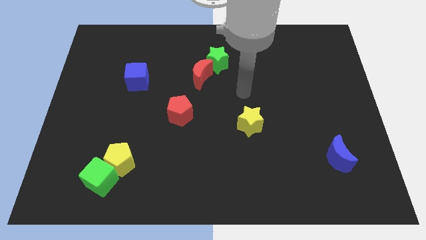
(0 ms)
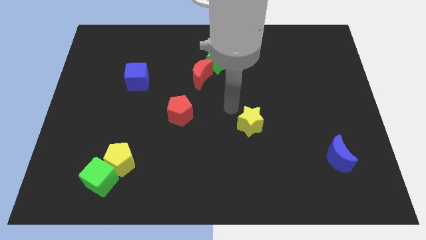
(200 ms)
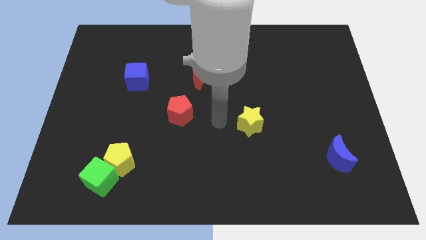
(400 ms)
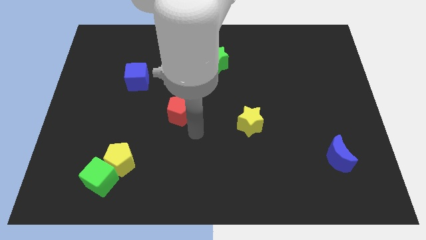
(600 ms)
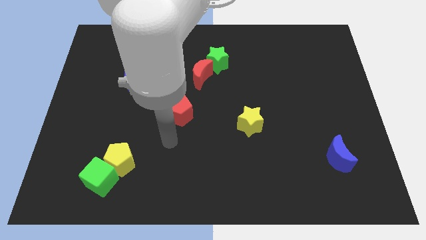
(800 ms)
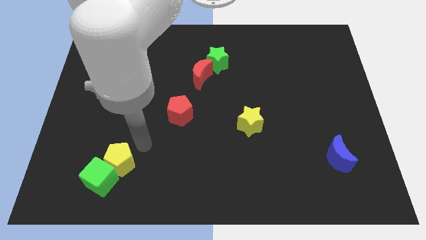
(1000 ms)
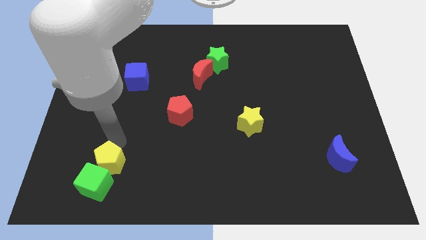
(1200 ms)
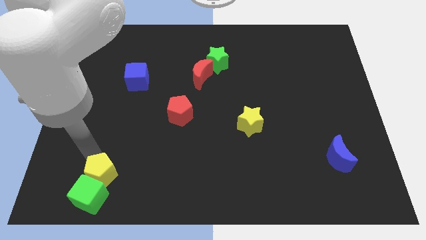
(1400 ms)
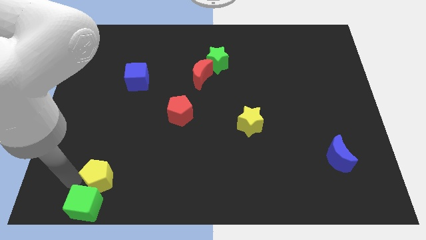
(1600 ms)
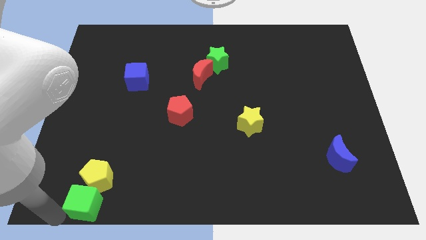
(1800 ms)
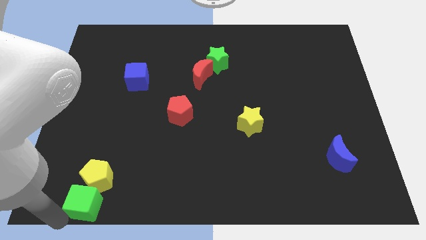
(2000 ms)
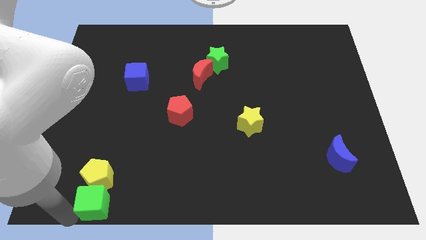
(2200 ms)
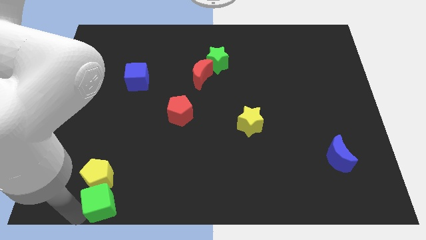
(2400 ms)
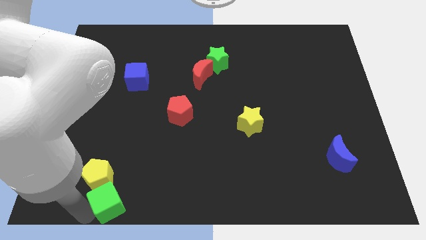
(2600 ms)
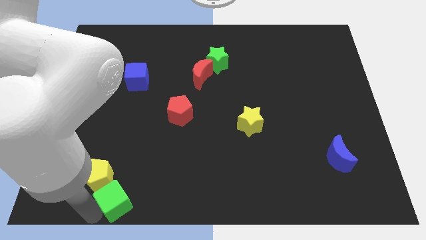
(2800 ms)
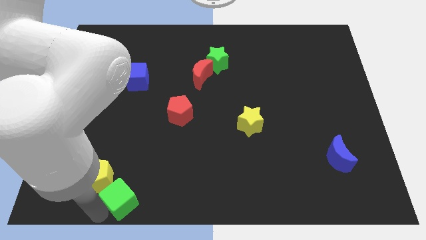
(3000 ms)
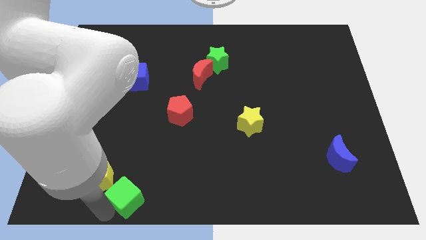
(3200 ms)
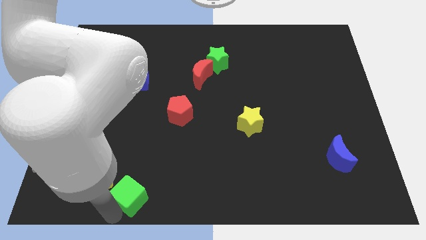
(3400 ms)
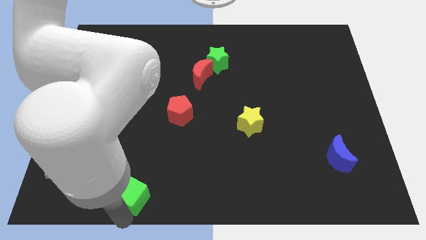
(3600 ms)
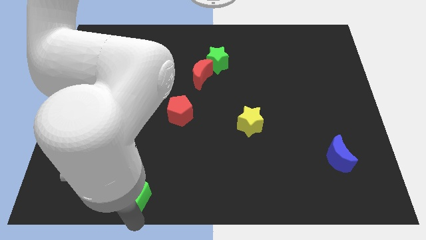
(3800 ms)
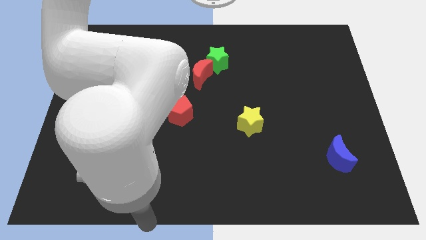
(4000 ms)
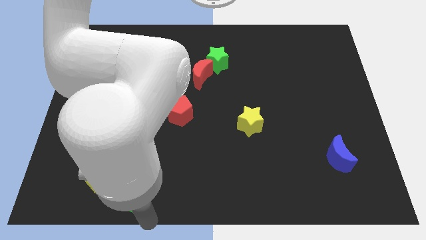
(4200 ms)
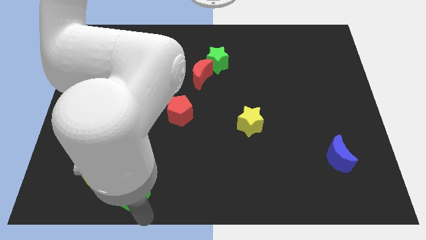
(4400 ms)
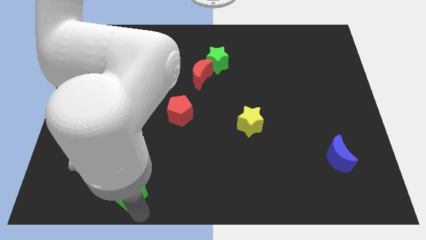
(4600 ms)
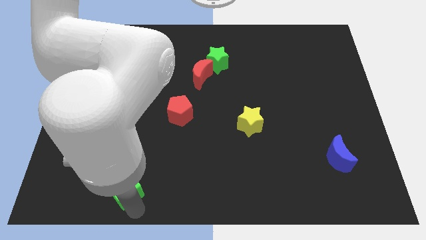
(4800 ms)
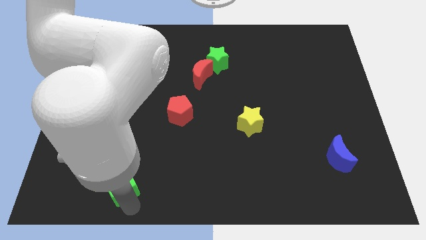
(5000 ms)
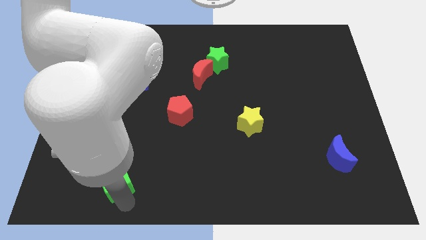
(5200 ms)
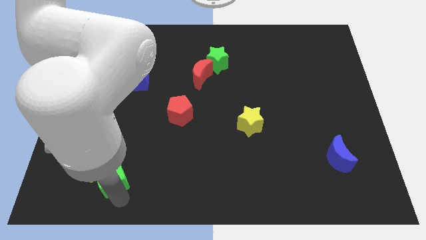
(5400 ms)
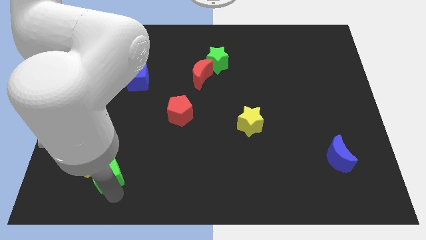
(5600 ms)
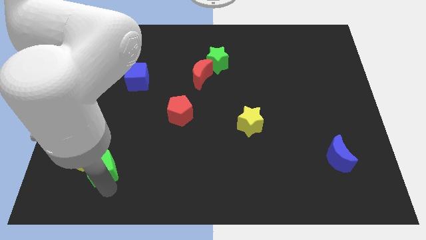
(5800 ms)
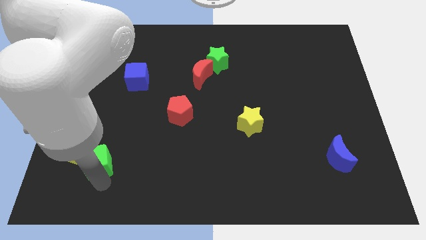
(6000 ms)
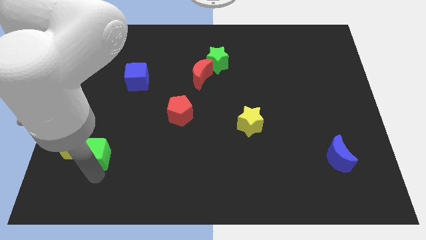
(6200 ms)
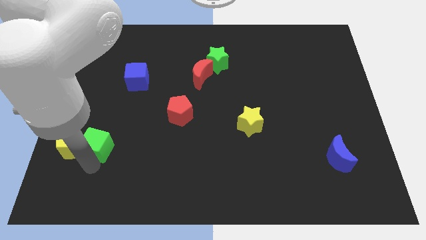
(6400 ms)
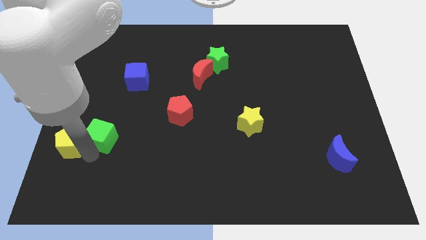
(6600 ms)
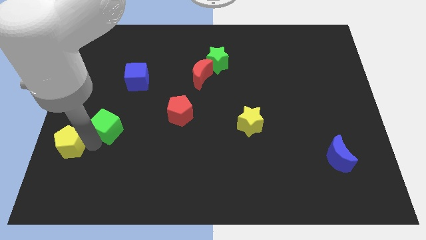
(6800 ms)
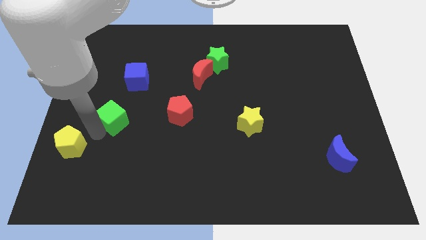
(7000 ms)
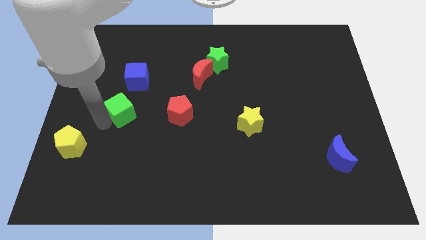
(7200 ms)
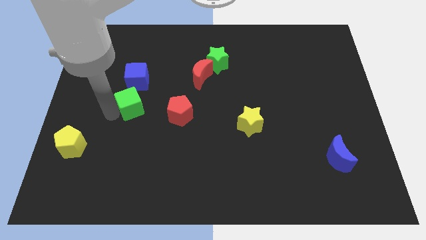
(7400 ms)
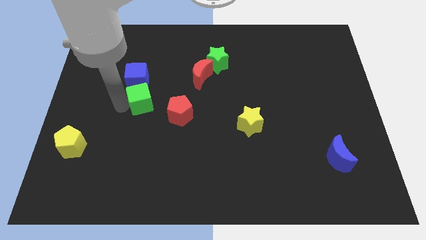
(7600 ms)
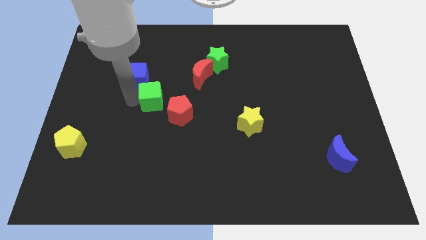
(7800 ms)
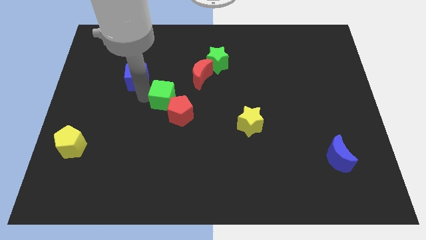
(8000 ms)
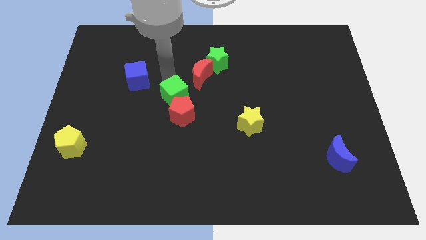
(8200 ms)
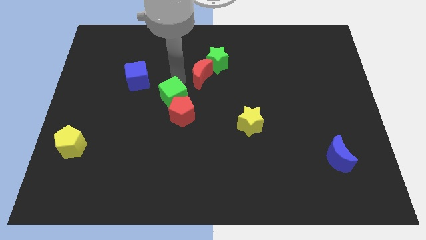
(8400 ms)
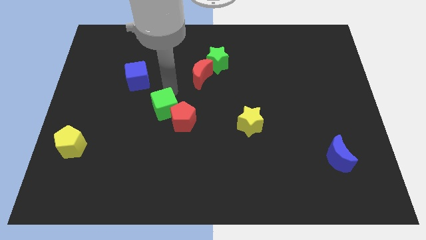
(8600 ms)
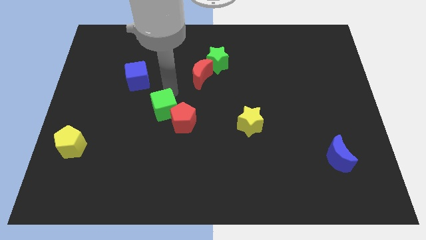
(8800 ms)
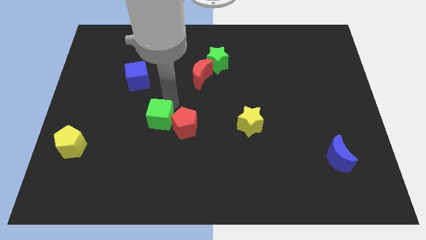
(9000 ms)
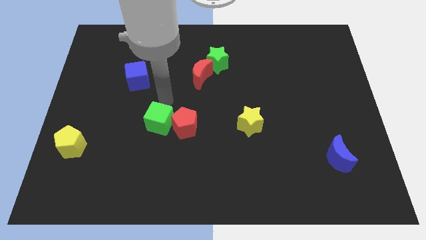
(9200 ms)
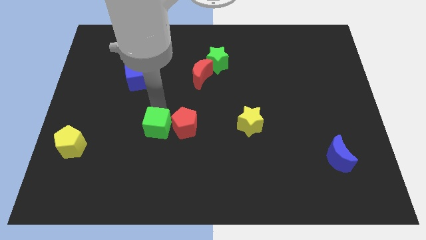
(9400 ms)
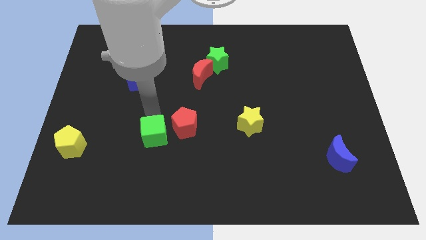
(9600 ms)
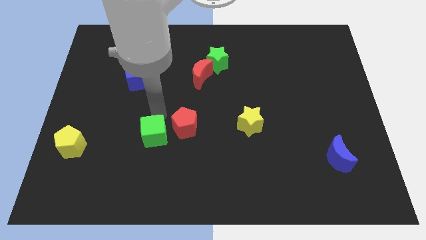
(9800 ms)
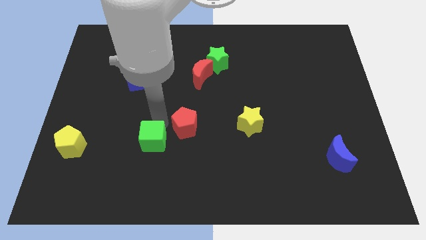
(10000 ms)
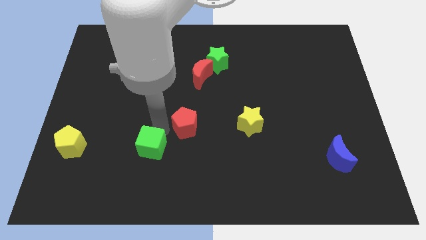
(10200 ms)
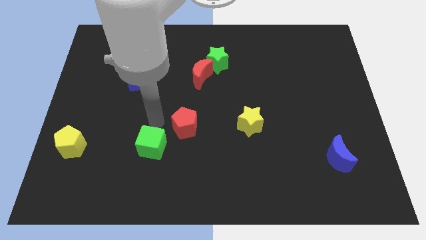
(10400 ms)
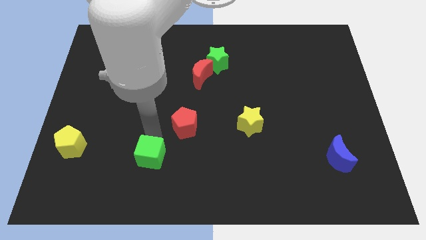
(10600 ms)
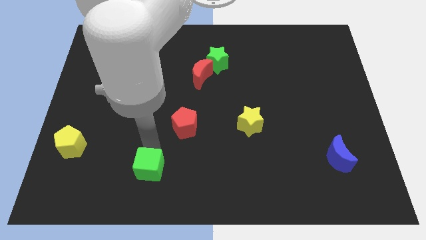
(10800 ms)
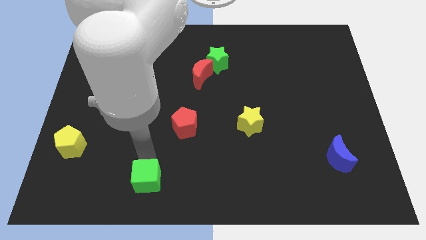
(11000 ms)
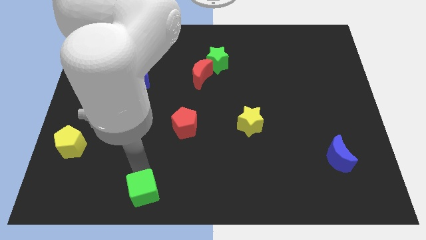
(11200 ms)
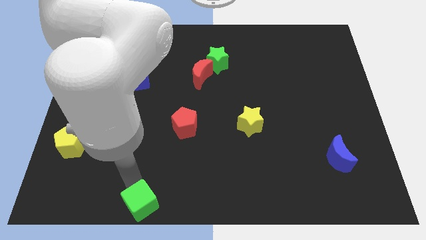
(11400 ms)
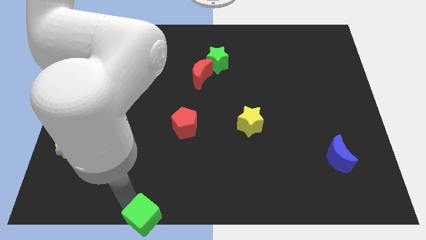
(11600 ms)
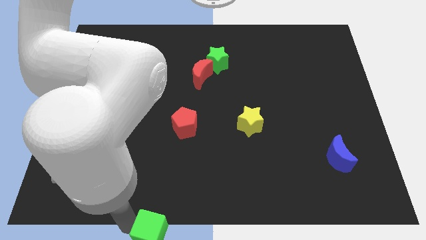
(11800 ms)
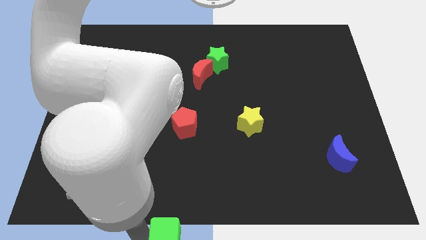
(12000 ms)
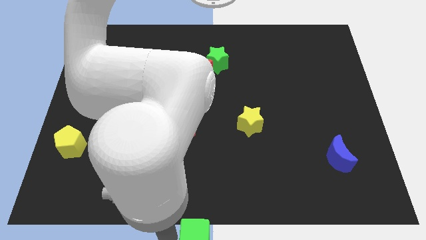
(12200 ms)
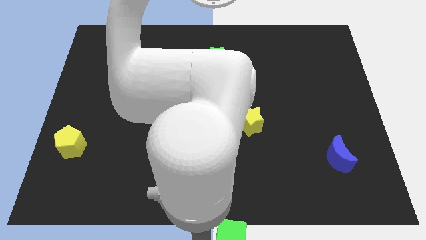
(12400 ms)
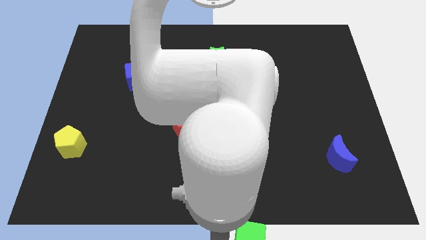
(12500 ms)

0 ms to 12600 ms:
push the green cube to the right

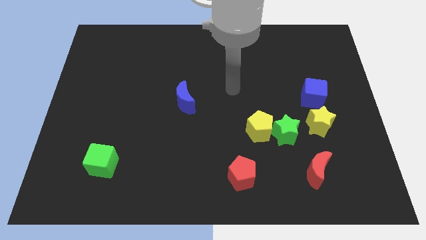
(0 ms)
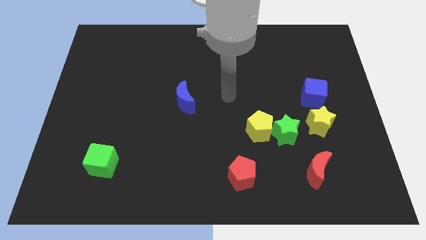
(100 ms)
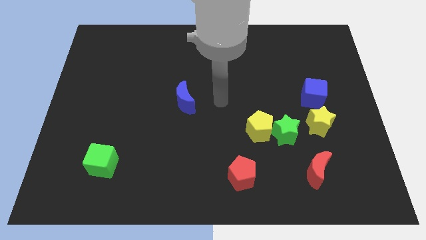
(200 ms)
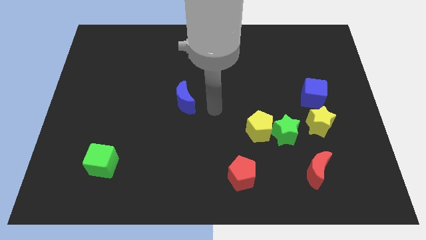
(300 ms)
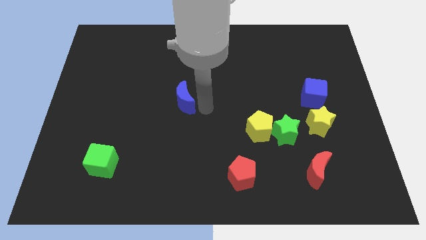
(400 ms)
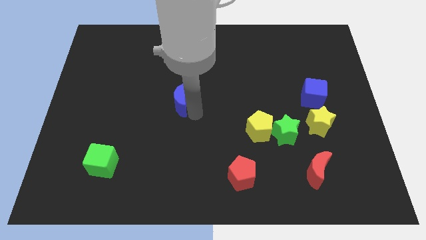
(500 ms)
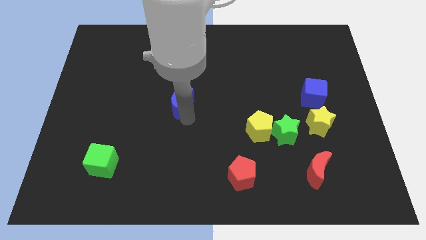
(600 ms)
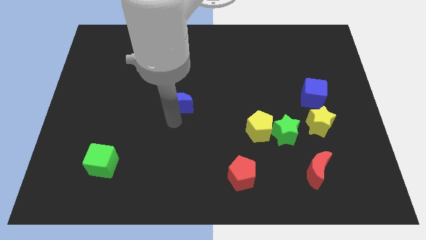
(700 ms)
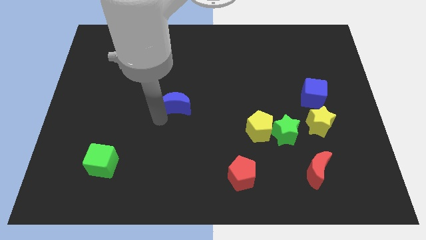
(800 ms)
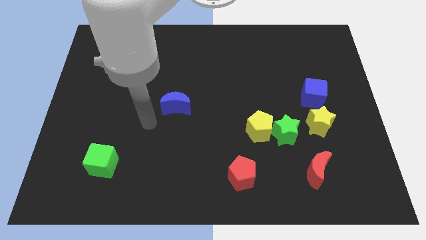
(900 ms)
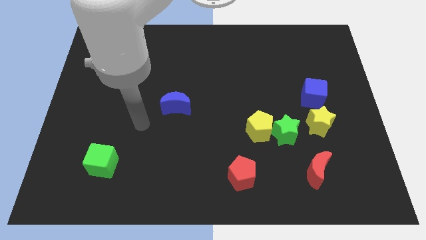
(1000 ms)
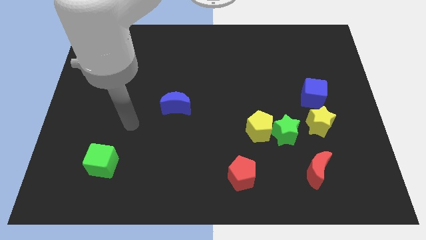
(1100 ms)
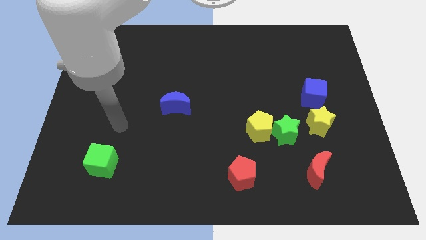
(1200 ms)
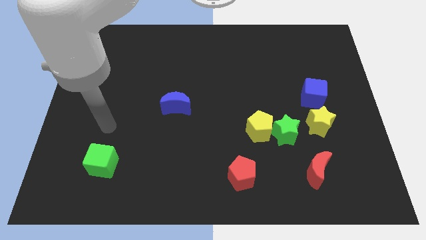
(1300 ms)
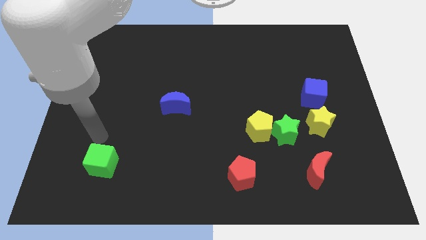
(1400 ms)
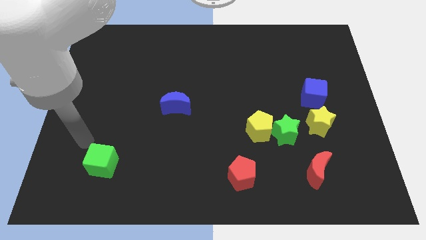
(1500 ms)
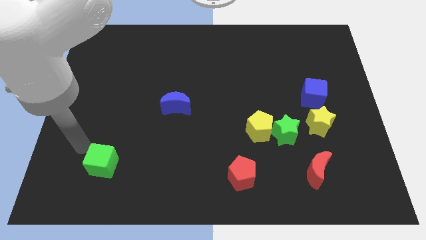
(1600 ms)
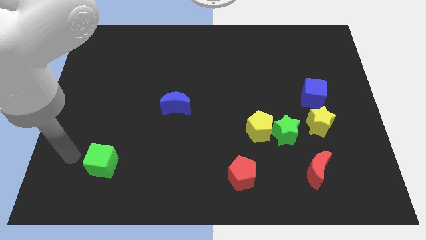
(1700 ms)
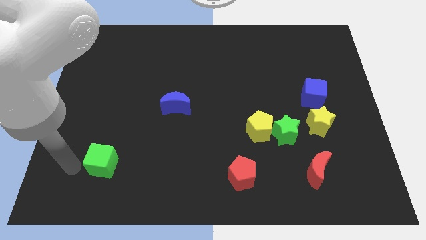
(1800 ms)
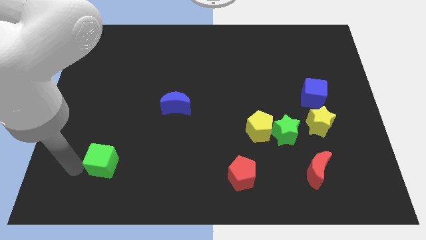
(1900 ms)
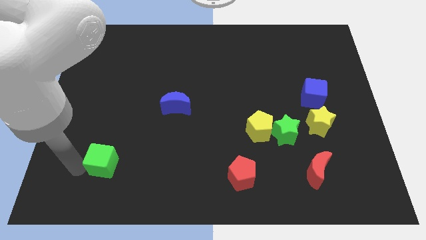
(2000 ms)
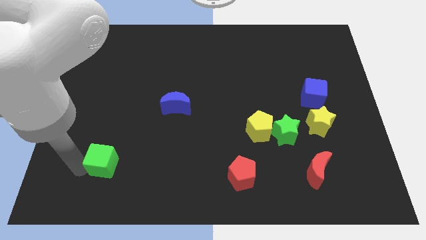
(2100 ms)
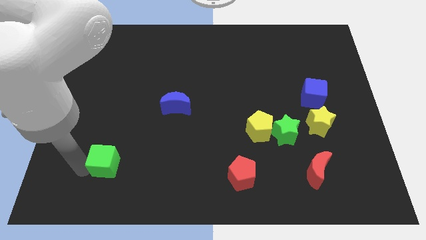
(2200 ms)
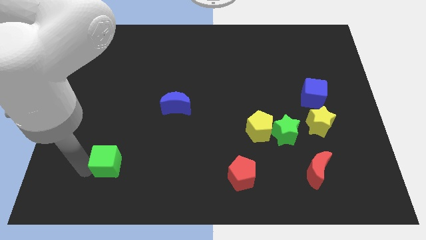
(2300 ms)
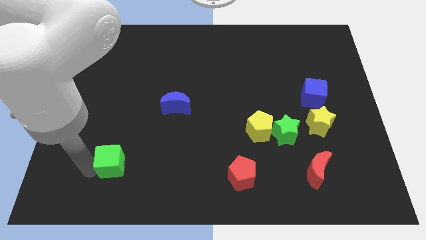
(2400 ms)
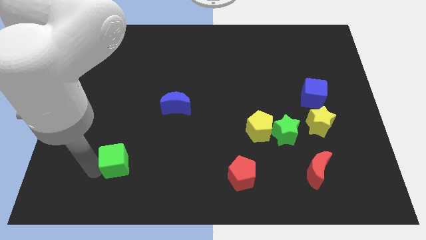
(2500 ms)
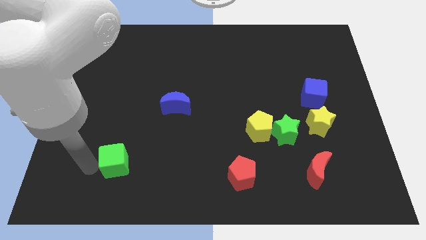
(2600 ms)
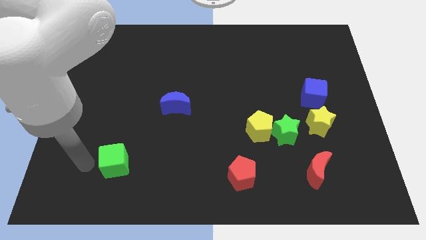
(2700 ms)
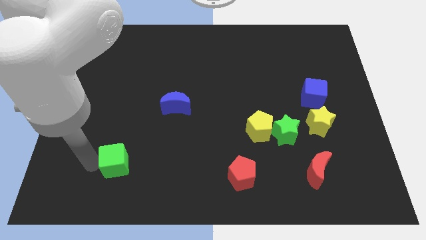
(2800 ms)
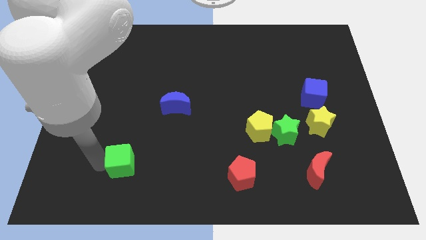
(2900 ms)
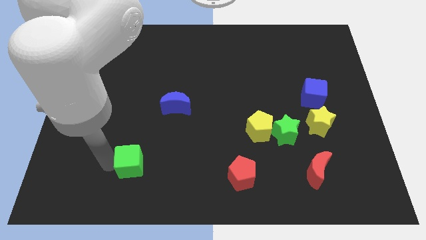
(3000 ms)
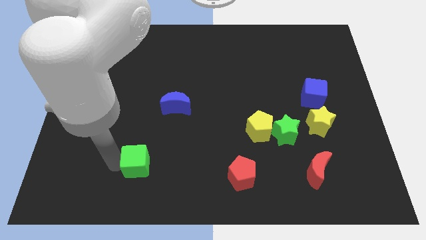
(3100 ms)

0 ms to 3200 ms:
slightly slide the green cube to the right
